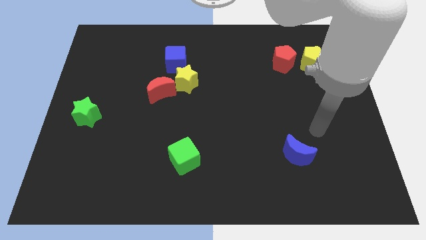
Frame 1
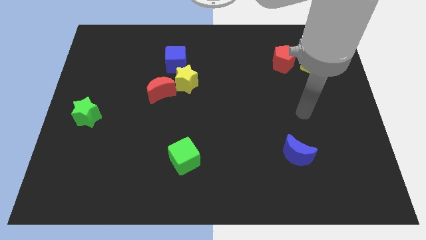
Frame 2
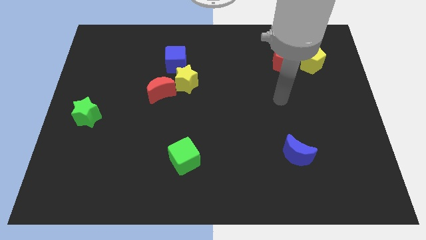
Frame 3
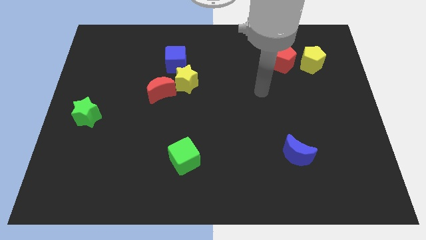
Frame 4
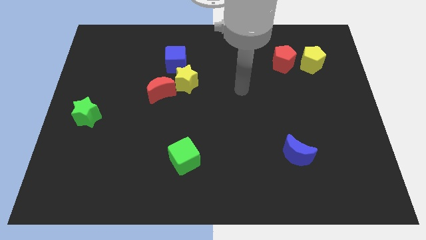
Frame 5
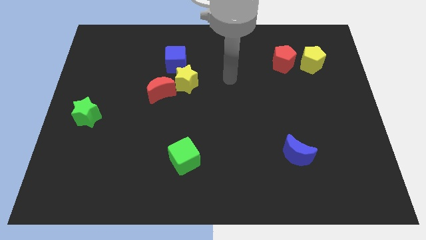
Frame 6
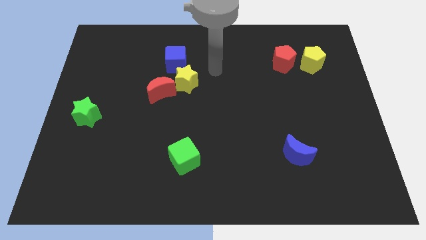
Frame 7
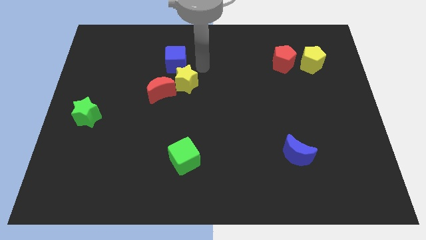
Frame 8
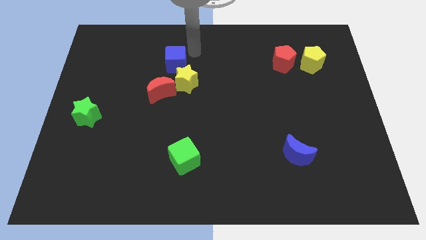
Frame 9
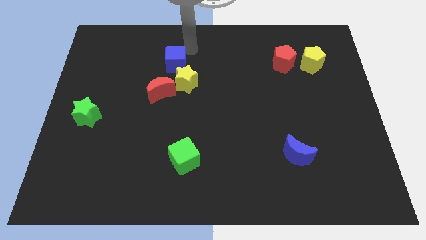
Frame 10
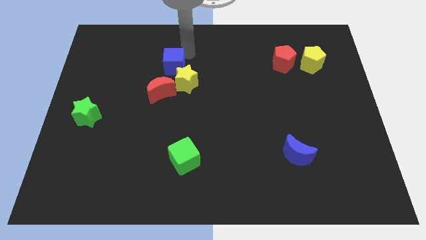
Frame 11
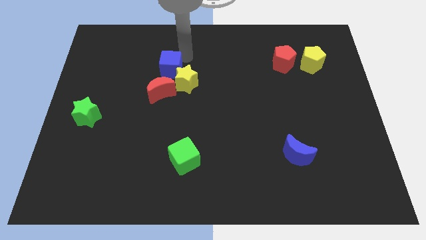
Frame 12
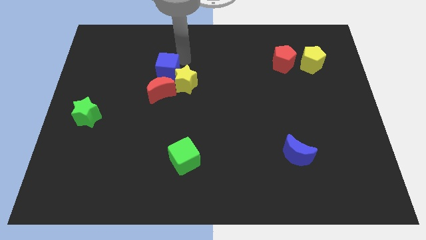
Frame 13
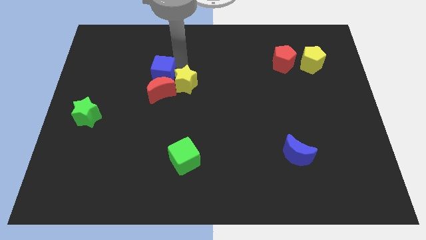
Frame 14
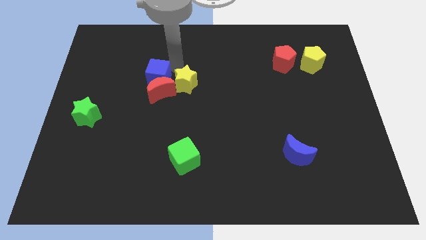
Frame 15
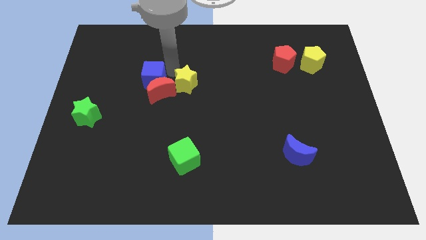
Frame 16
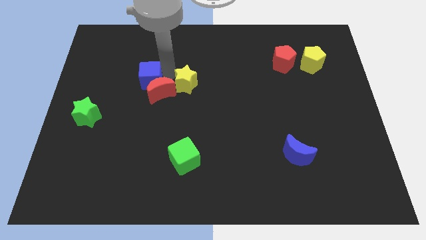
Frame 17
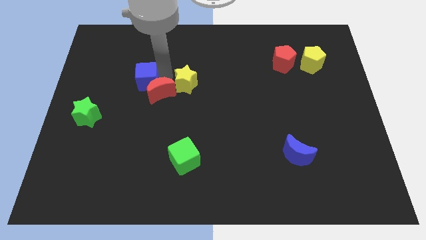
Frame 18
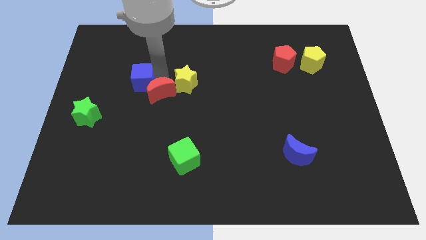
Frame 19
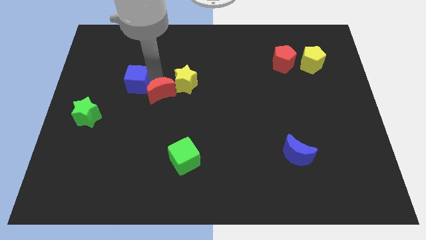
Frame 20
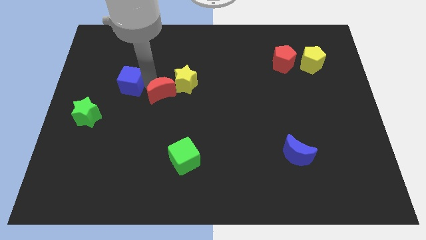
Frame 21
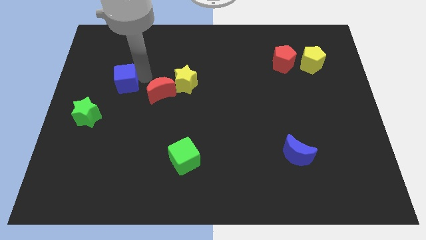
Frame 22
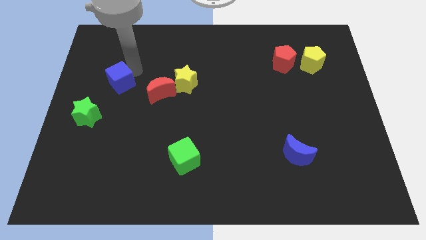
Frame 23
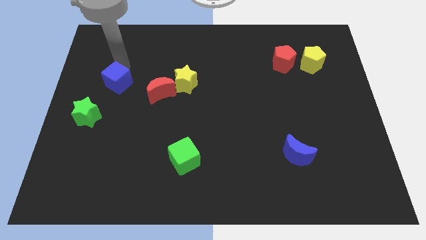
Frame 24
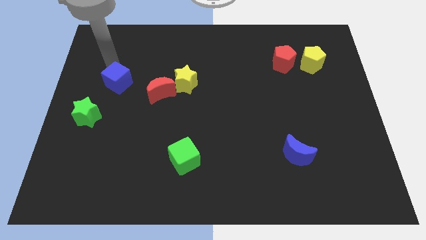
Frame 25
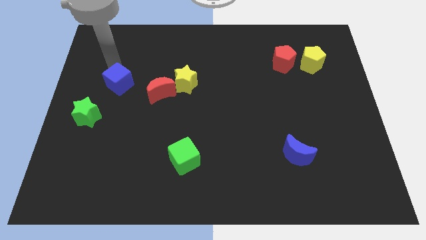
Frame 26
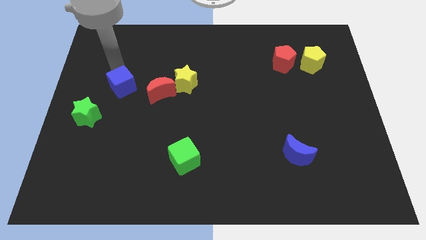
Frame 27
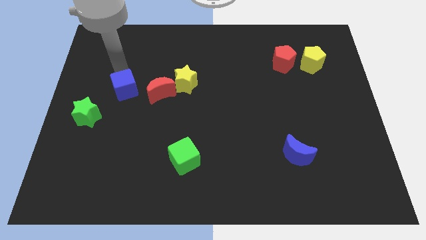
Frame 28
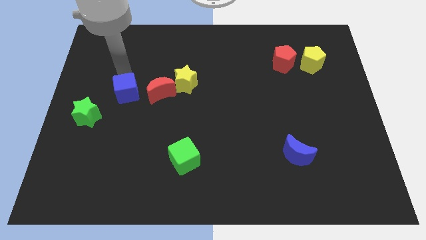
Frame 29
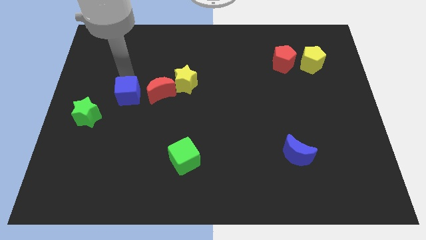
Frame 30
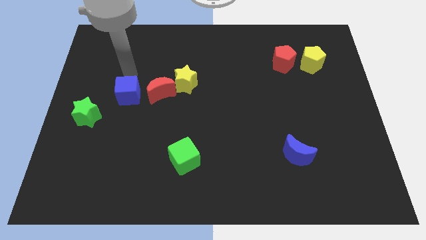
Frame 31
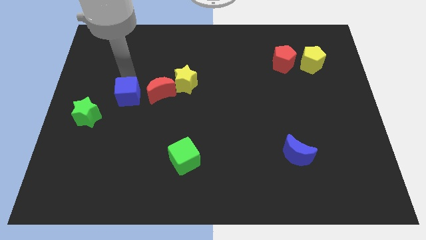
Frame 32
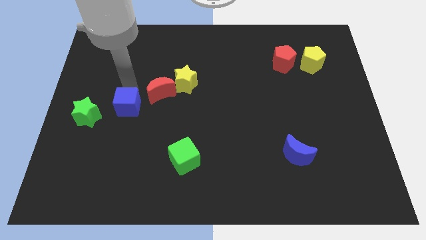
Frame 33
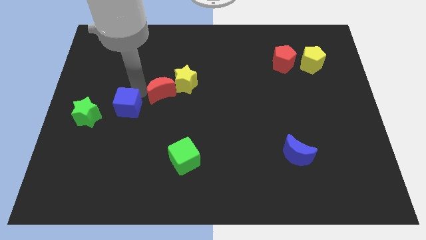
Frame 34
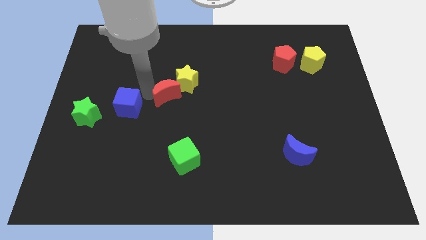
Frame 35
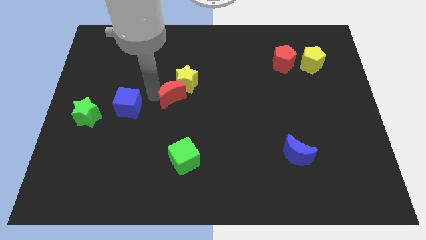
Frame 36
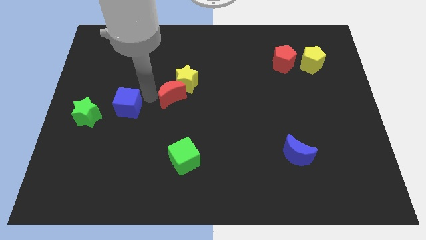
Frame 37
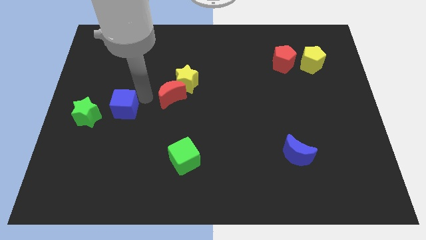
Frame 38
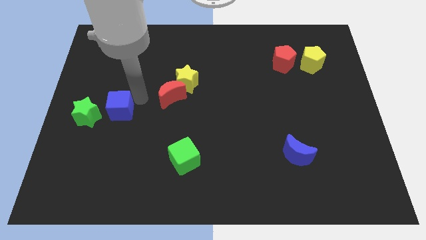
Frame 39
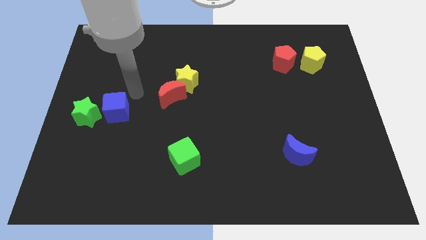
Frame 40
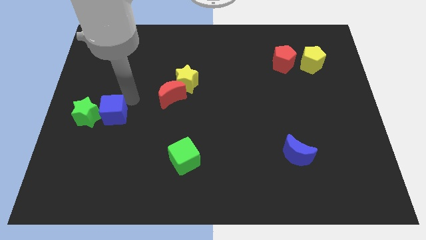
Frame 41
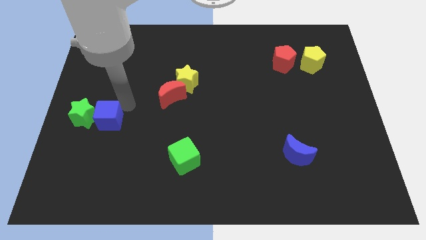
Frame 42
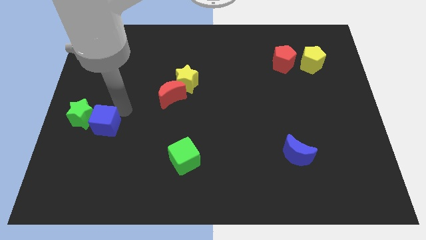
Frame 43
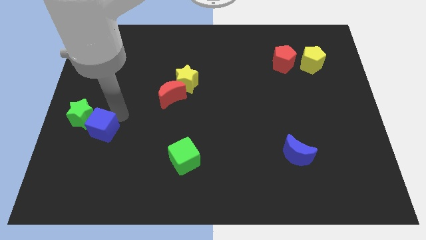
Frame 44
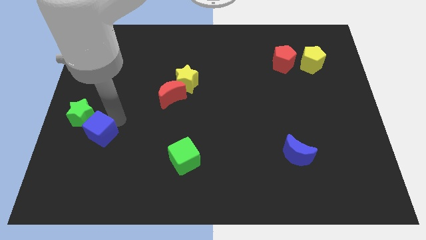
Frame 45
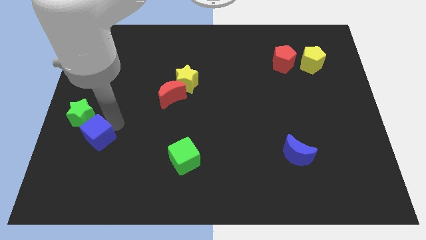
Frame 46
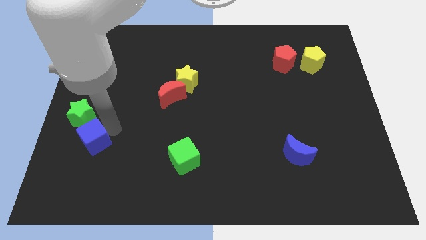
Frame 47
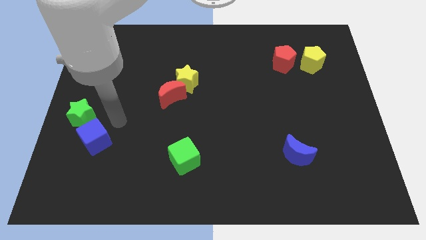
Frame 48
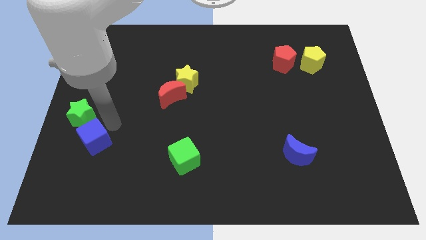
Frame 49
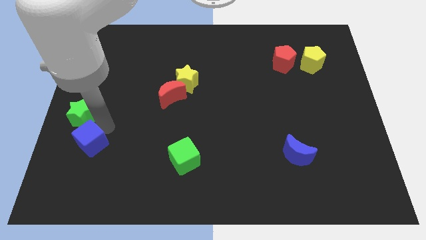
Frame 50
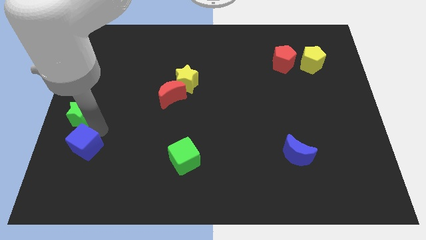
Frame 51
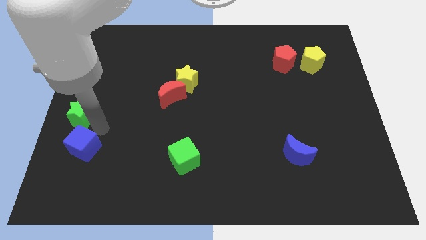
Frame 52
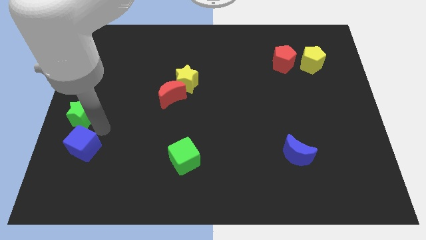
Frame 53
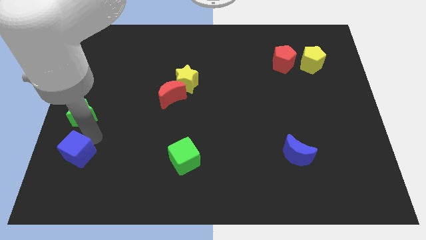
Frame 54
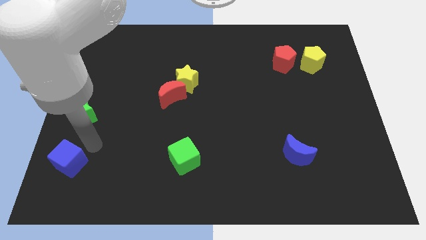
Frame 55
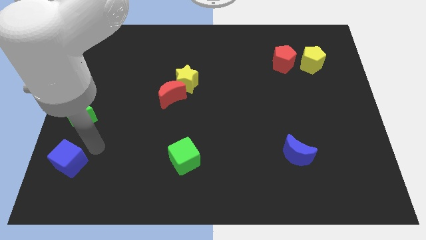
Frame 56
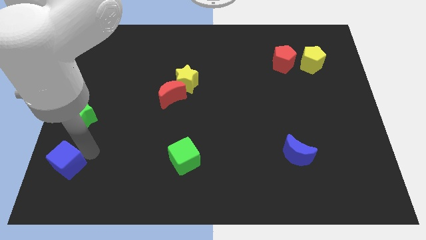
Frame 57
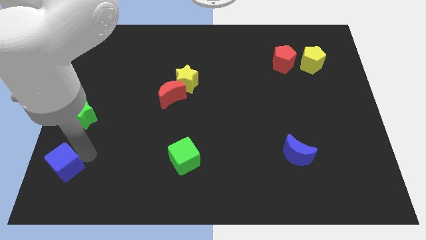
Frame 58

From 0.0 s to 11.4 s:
move the blue cube to the lower left corner
